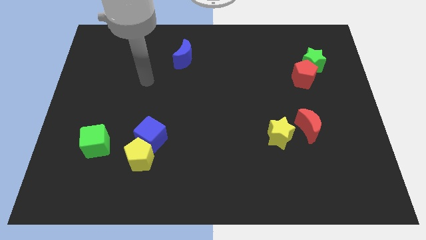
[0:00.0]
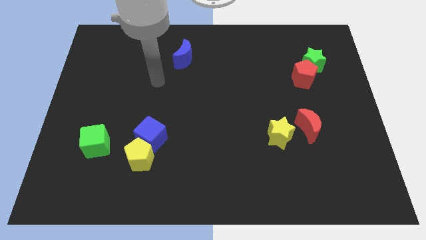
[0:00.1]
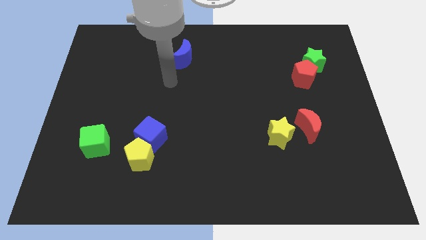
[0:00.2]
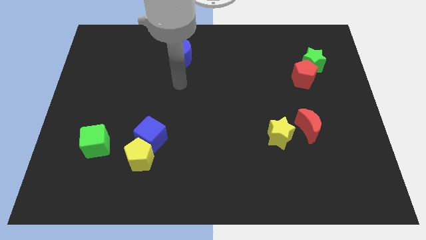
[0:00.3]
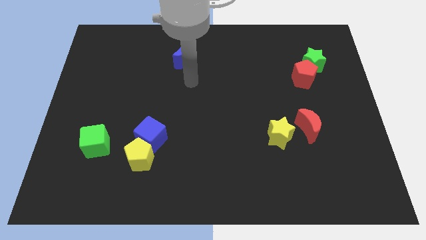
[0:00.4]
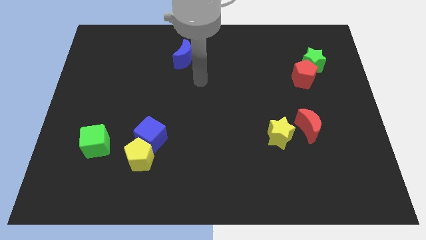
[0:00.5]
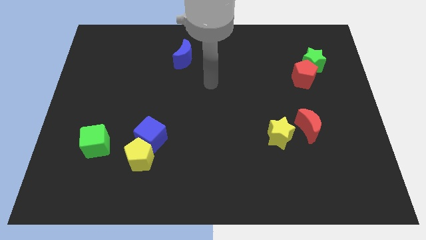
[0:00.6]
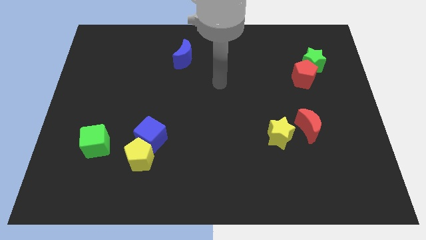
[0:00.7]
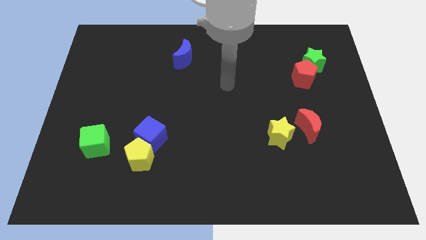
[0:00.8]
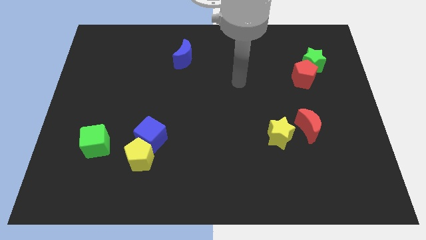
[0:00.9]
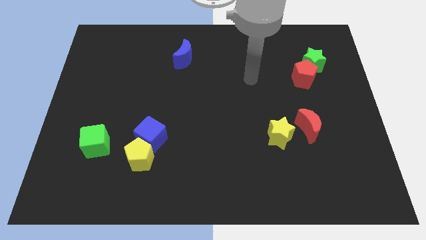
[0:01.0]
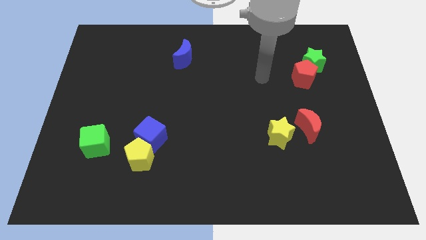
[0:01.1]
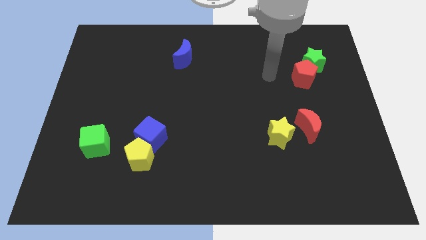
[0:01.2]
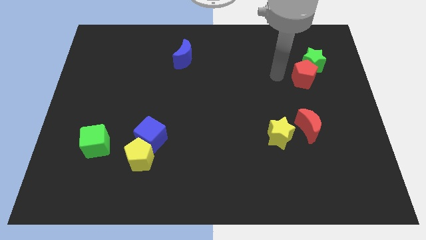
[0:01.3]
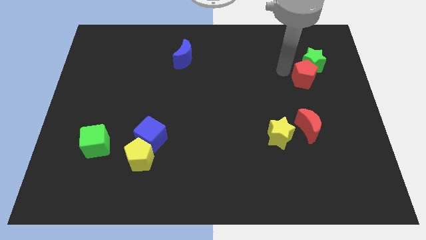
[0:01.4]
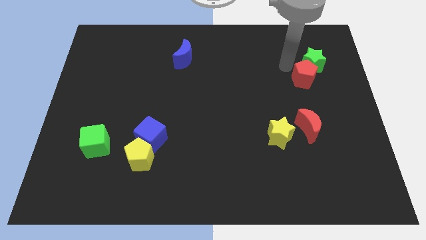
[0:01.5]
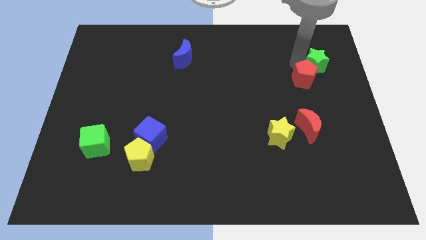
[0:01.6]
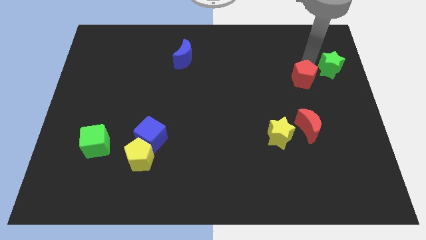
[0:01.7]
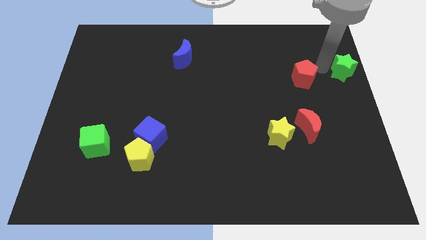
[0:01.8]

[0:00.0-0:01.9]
pull the red pentagon apart from the green star

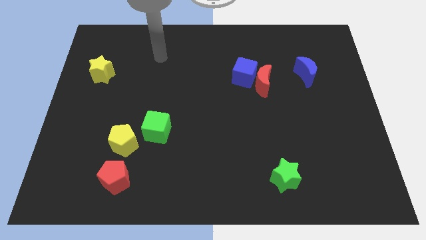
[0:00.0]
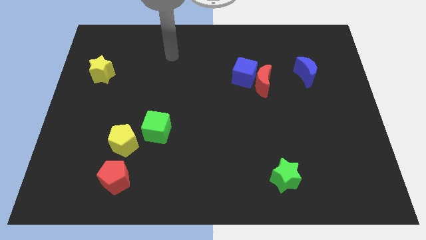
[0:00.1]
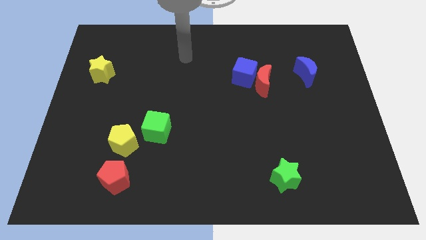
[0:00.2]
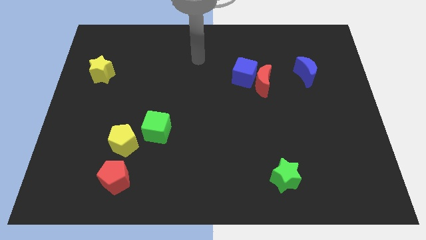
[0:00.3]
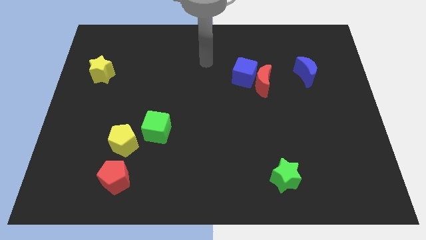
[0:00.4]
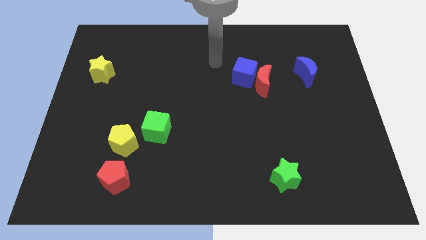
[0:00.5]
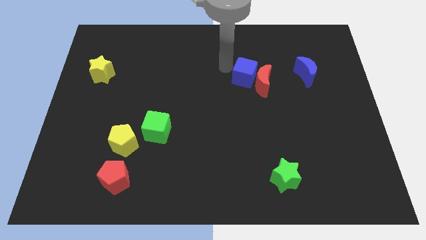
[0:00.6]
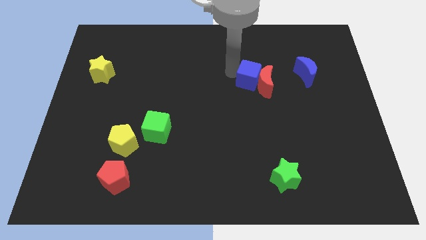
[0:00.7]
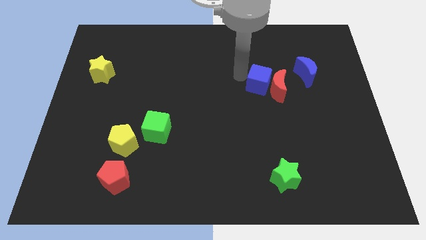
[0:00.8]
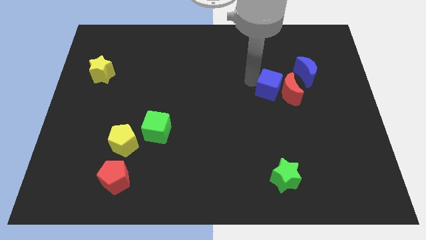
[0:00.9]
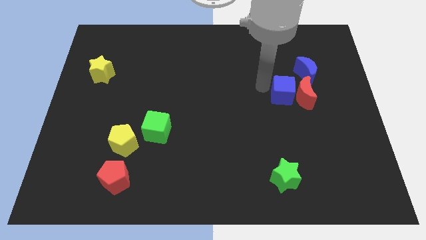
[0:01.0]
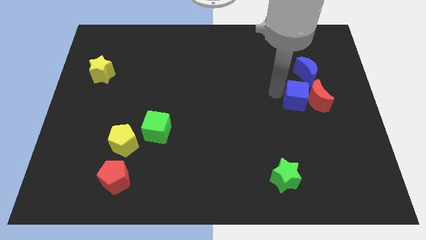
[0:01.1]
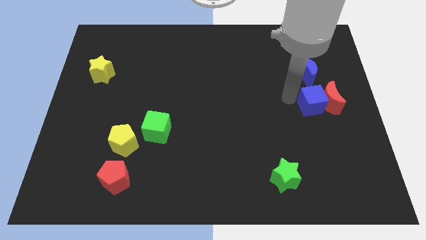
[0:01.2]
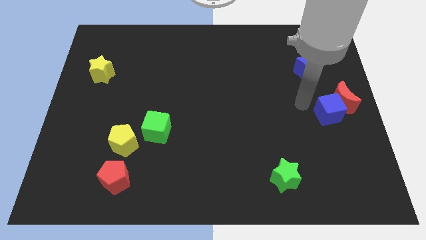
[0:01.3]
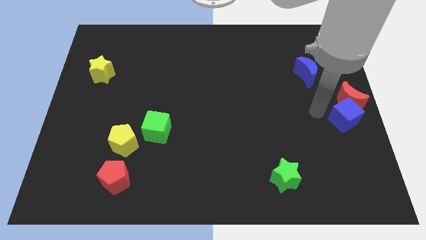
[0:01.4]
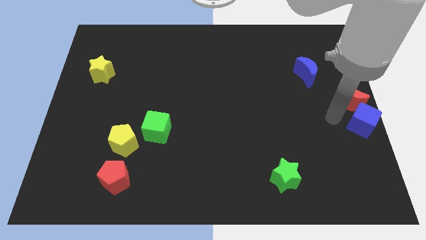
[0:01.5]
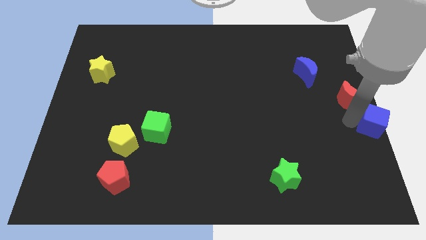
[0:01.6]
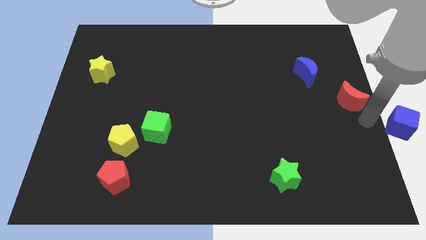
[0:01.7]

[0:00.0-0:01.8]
separate the red moon from the blue cube

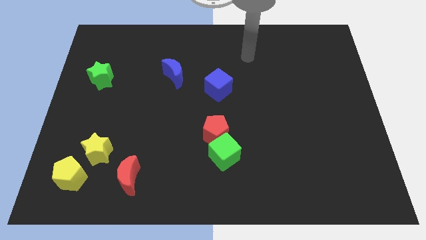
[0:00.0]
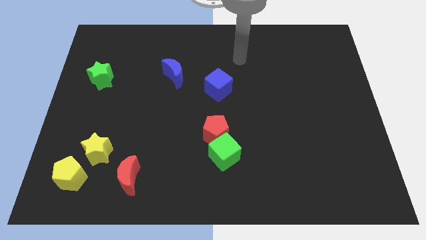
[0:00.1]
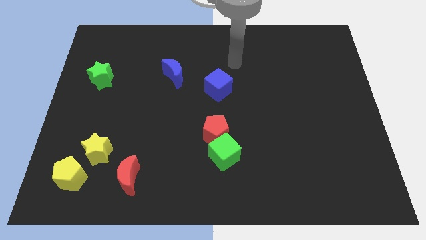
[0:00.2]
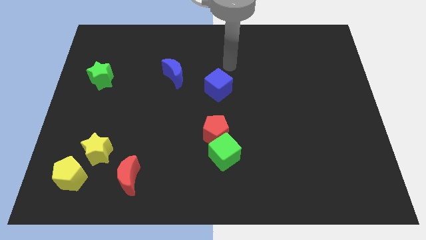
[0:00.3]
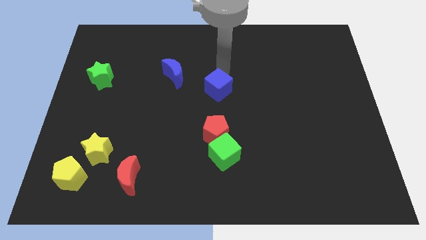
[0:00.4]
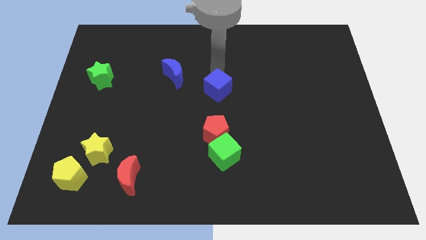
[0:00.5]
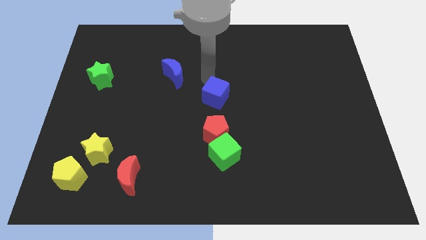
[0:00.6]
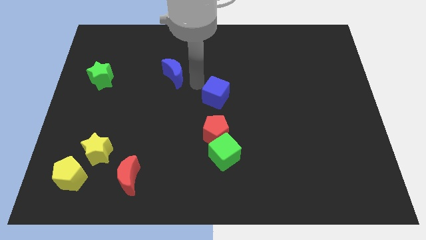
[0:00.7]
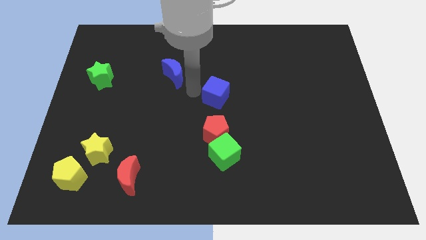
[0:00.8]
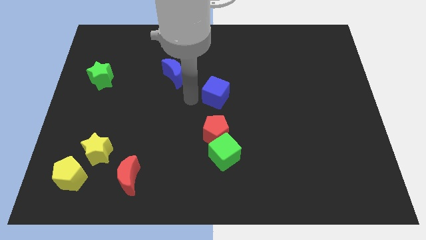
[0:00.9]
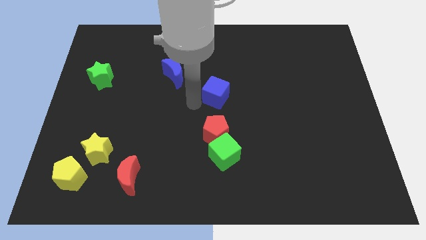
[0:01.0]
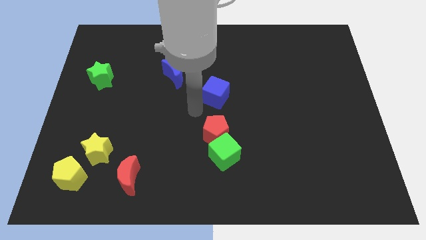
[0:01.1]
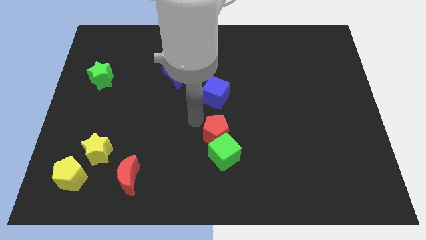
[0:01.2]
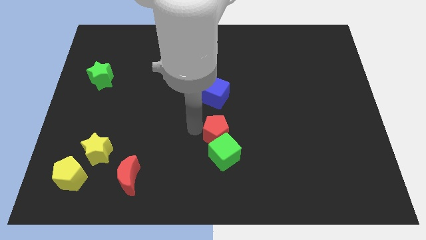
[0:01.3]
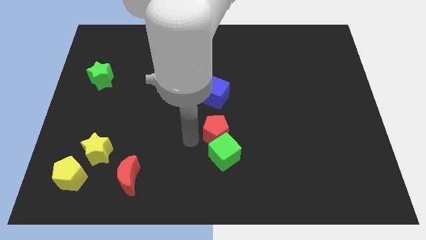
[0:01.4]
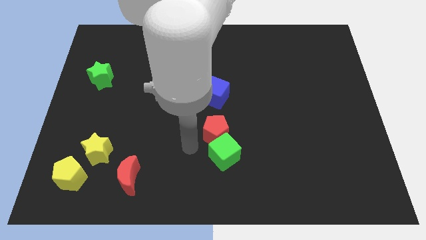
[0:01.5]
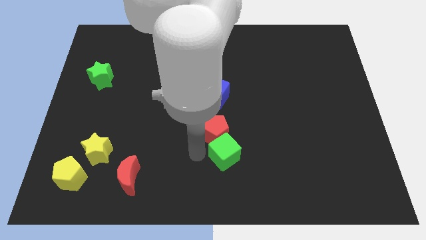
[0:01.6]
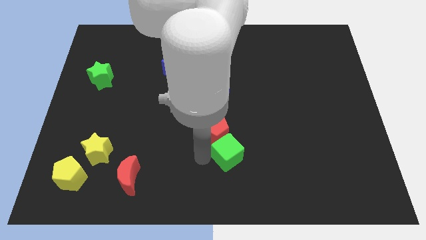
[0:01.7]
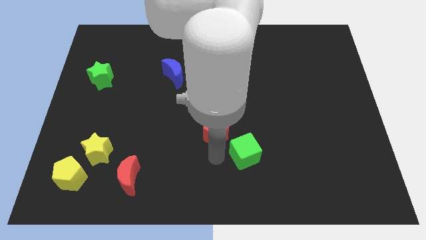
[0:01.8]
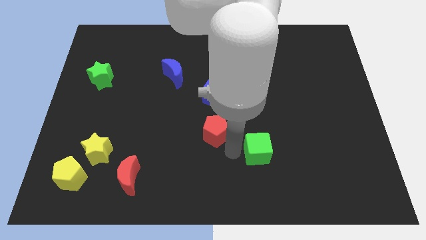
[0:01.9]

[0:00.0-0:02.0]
move the red pentagon away from the green cube

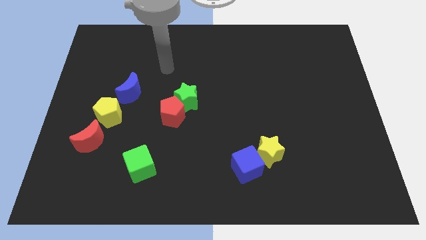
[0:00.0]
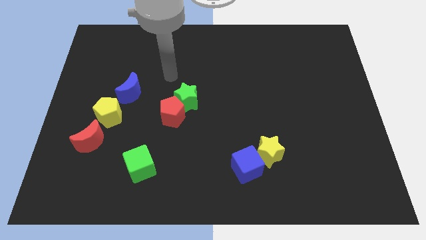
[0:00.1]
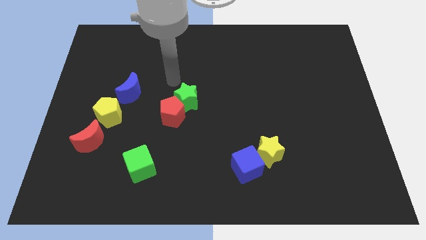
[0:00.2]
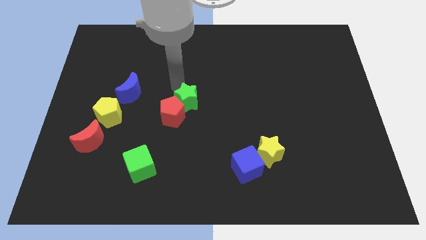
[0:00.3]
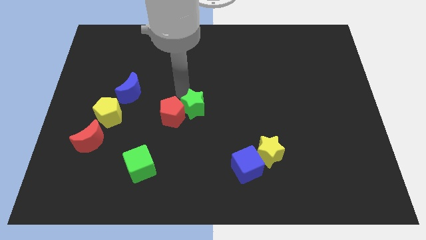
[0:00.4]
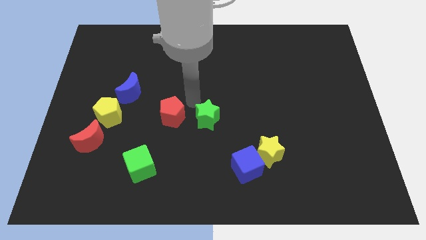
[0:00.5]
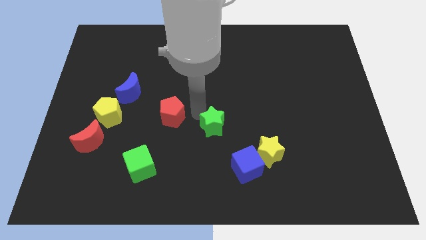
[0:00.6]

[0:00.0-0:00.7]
separate the red pentagon from the green star

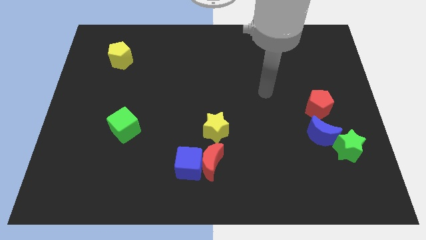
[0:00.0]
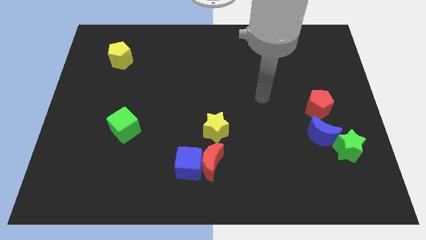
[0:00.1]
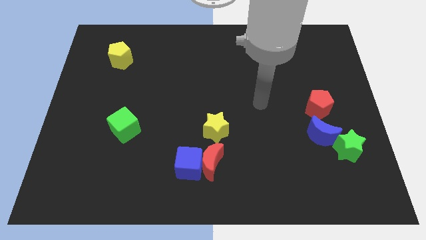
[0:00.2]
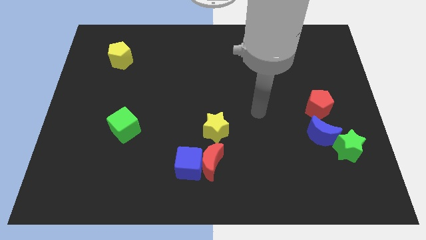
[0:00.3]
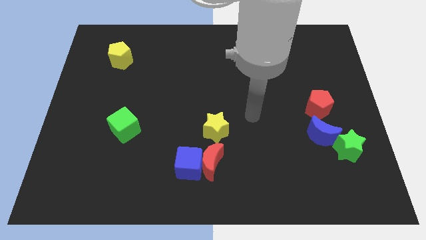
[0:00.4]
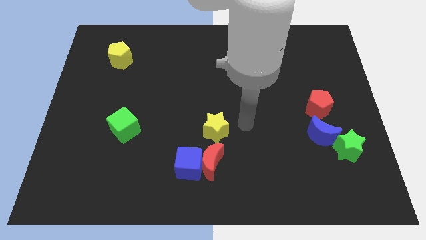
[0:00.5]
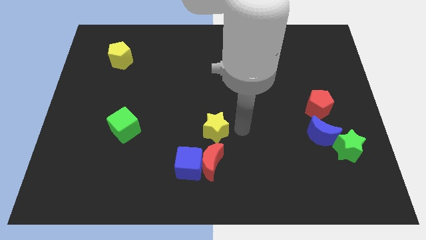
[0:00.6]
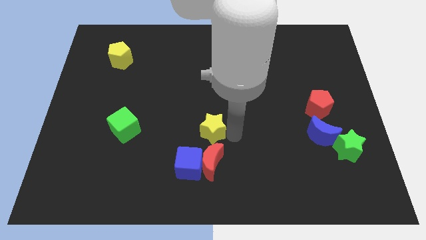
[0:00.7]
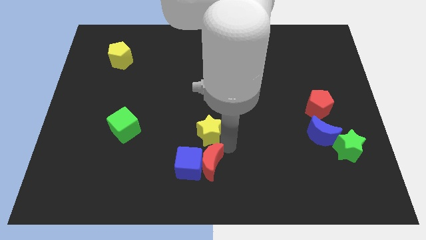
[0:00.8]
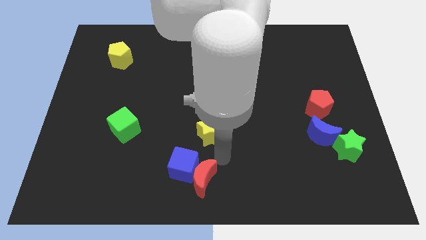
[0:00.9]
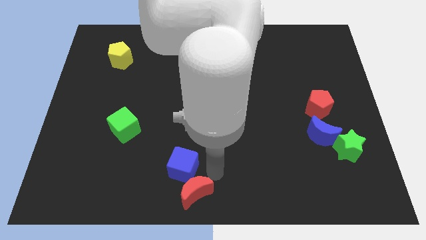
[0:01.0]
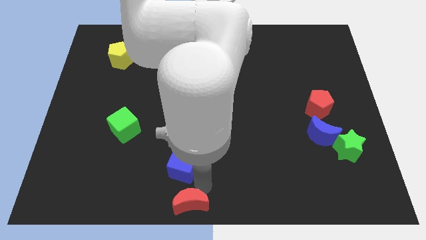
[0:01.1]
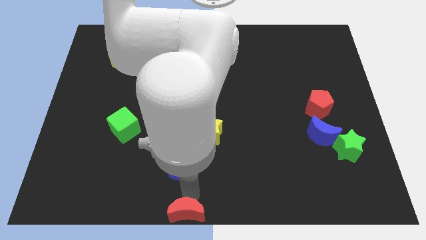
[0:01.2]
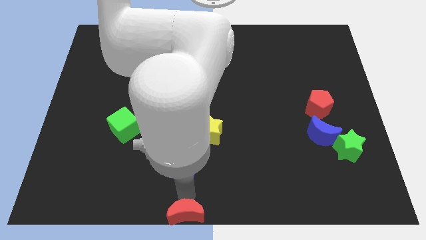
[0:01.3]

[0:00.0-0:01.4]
pull the blue cube apart from the red moon

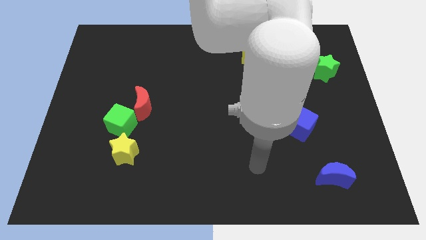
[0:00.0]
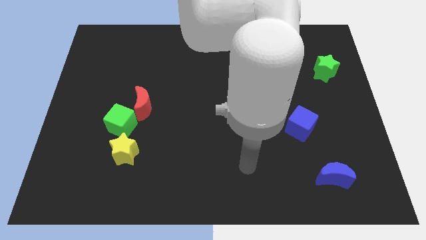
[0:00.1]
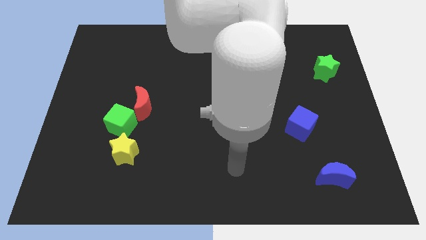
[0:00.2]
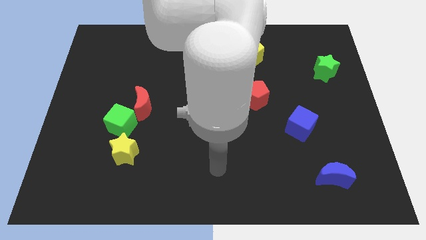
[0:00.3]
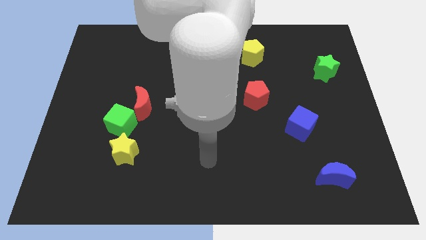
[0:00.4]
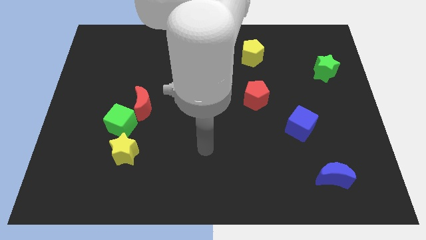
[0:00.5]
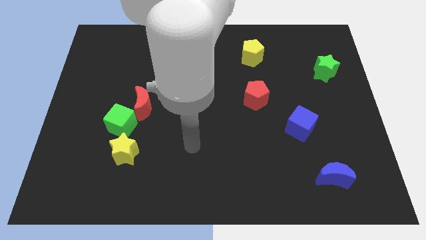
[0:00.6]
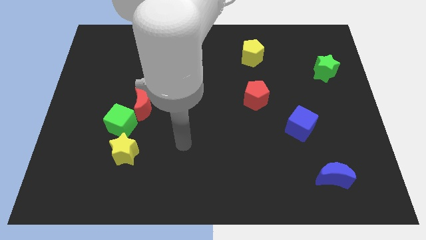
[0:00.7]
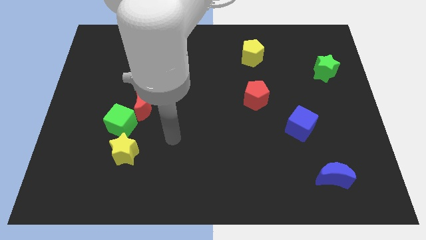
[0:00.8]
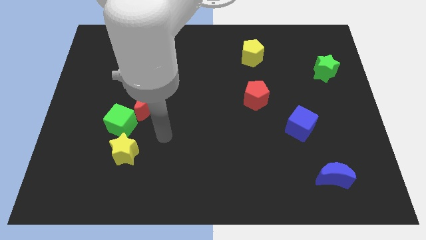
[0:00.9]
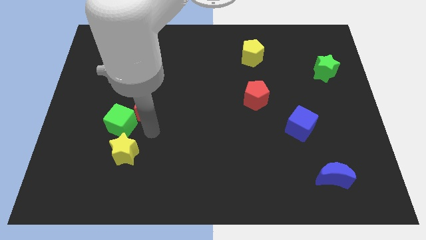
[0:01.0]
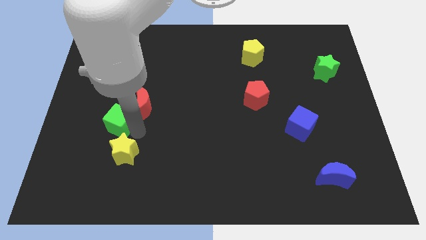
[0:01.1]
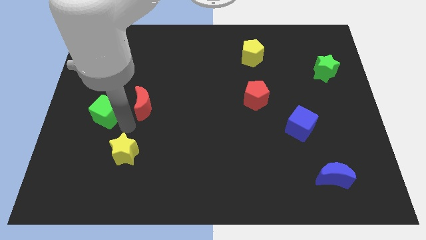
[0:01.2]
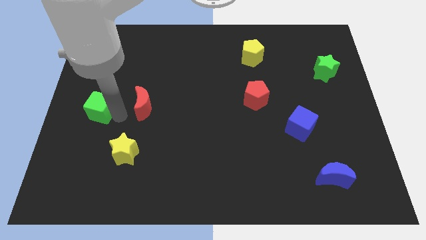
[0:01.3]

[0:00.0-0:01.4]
move the red moon away from the green cube
